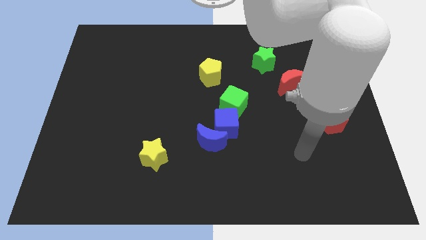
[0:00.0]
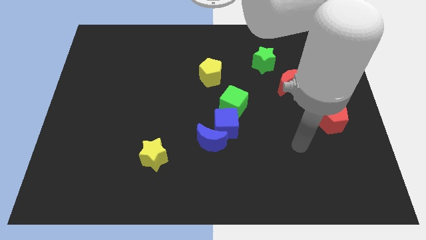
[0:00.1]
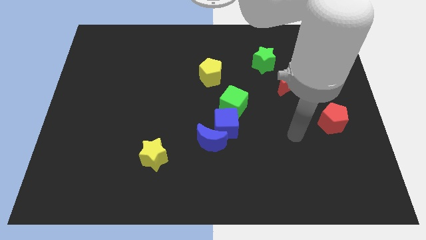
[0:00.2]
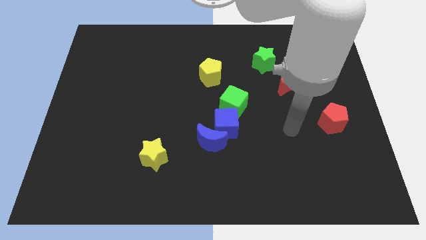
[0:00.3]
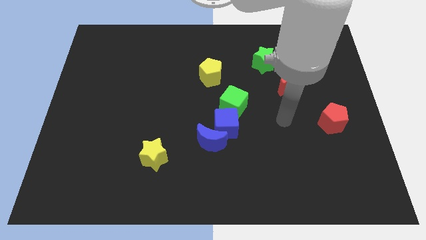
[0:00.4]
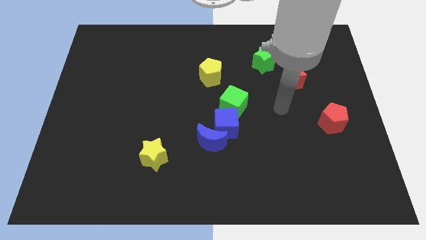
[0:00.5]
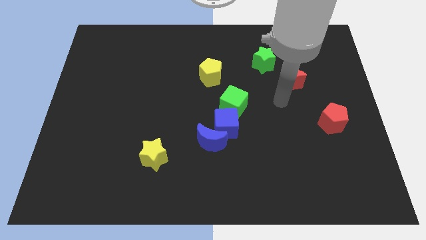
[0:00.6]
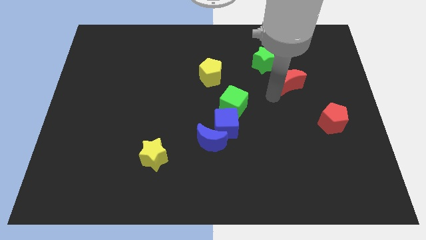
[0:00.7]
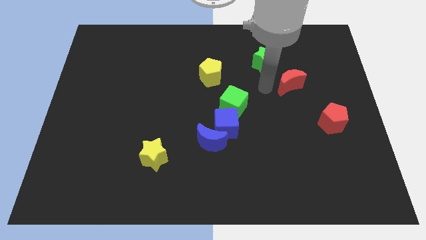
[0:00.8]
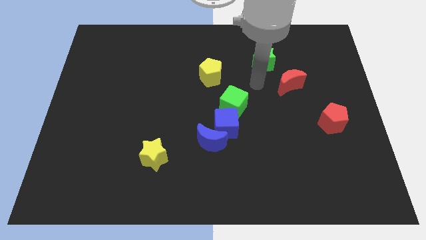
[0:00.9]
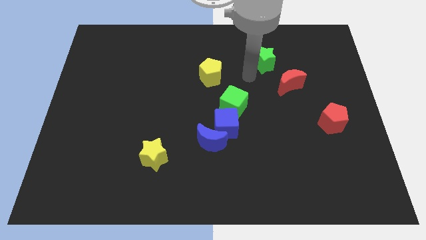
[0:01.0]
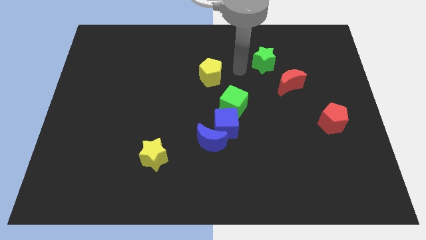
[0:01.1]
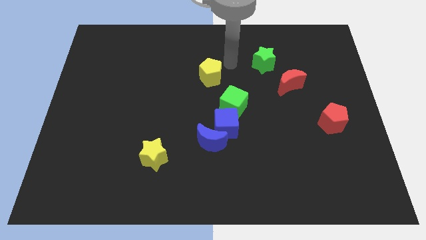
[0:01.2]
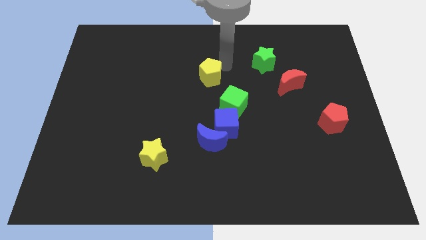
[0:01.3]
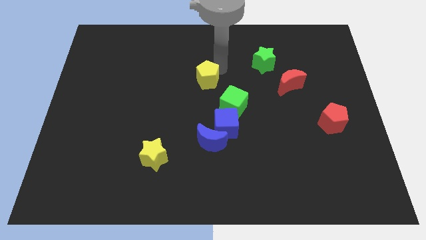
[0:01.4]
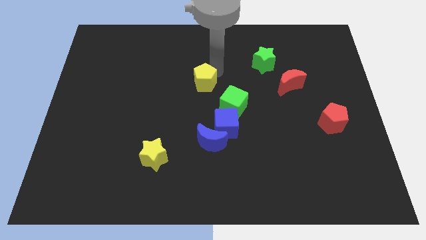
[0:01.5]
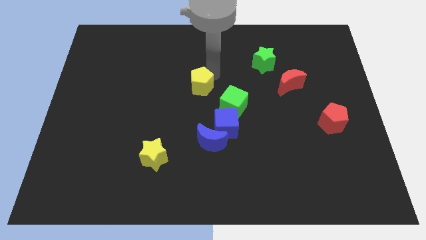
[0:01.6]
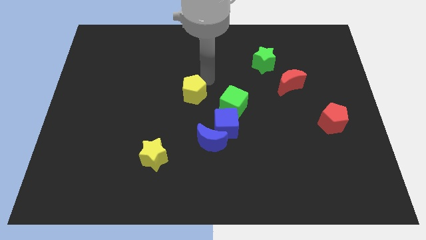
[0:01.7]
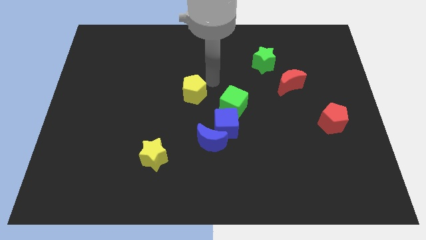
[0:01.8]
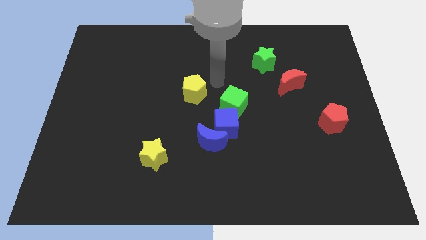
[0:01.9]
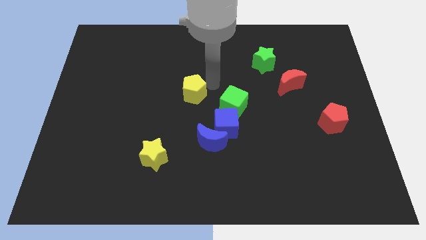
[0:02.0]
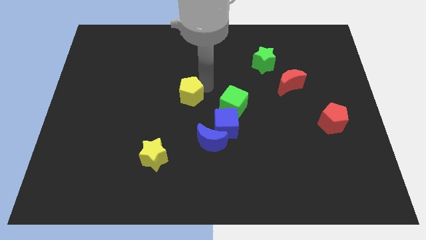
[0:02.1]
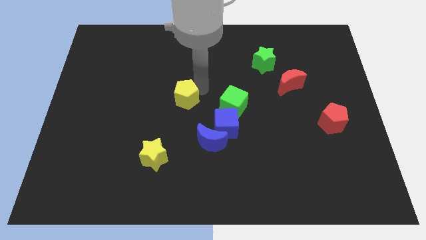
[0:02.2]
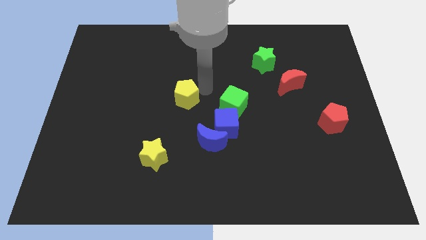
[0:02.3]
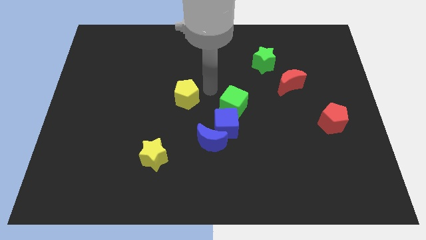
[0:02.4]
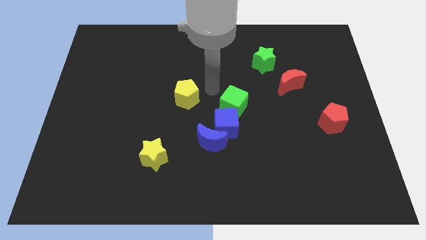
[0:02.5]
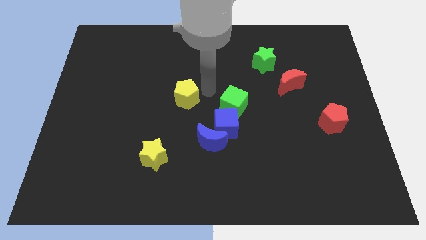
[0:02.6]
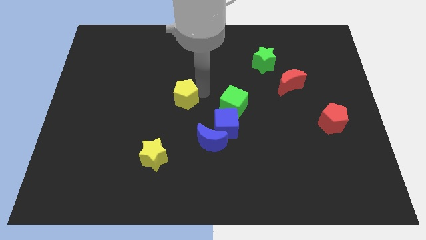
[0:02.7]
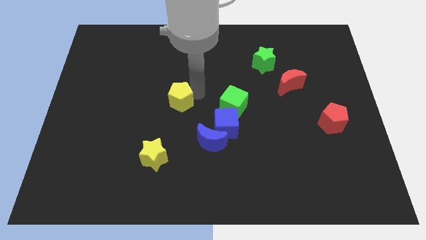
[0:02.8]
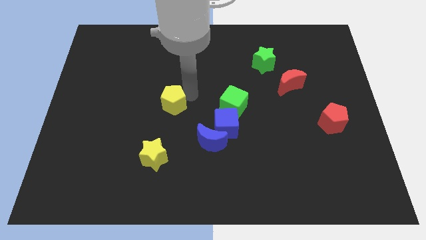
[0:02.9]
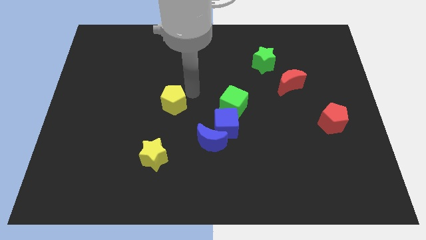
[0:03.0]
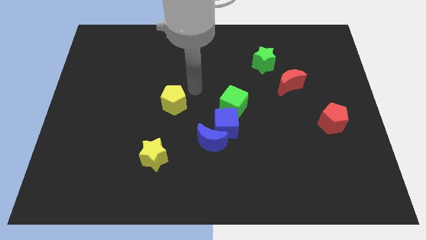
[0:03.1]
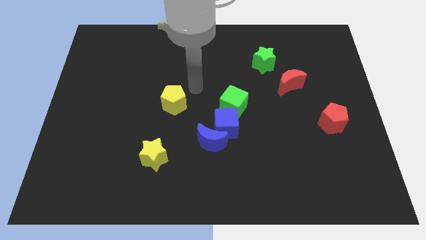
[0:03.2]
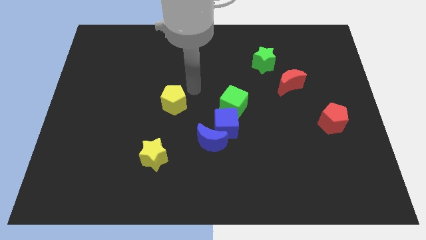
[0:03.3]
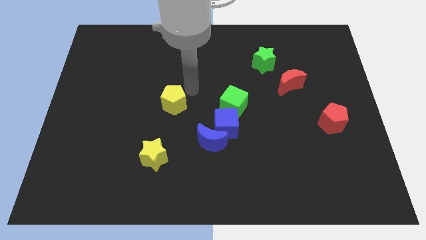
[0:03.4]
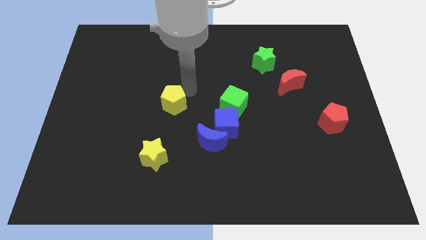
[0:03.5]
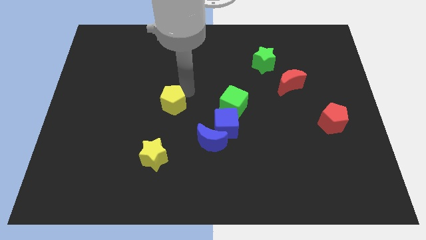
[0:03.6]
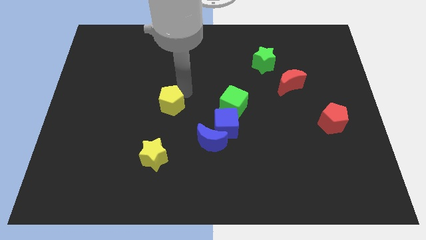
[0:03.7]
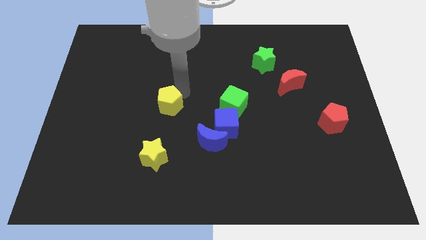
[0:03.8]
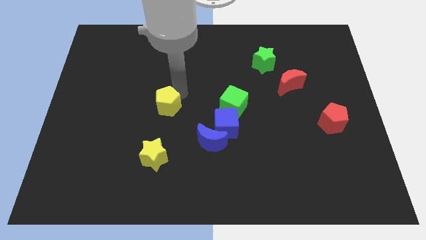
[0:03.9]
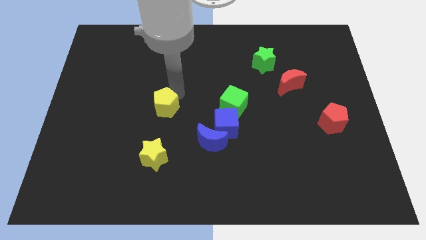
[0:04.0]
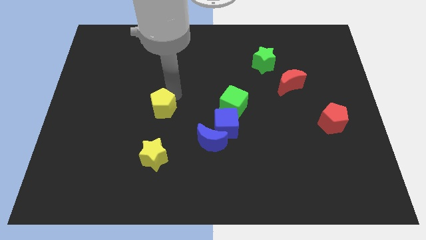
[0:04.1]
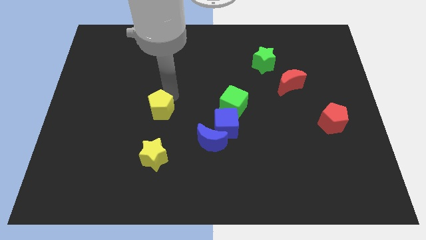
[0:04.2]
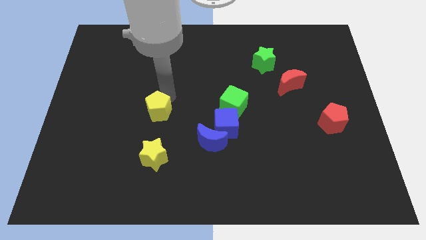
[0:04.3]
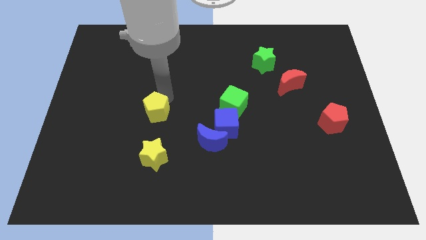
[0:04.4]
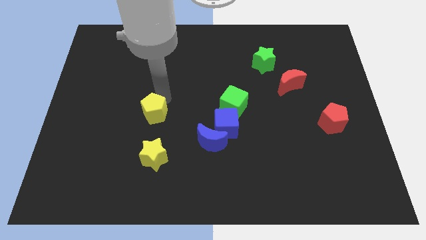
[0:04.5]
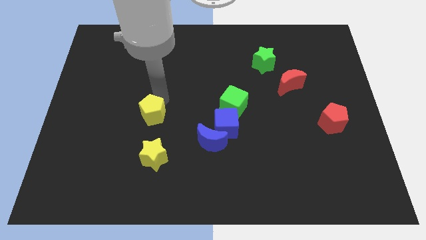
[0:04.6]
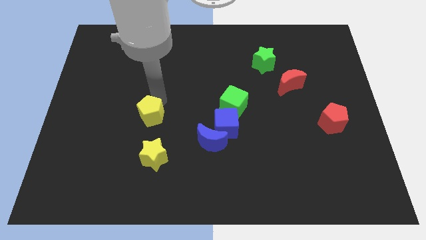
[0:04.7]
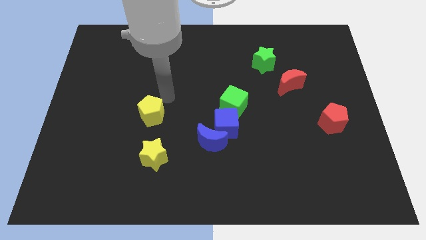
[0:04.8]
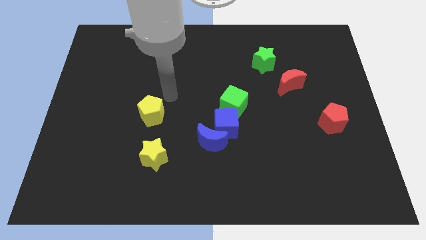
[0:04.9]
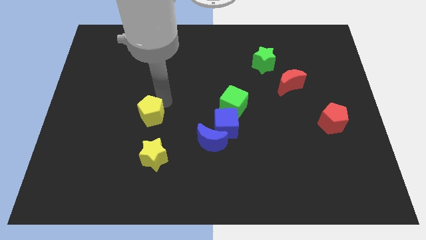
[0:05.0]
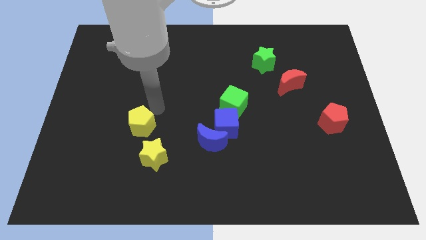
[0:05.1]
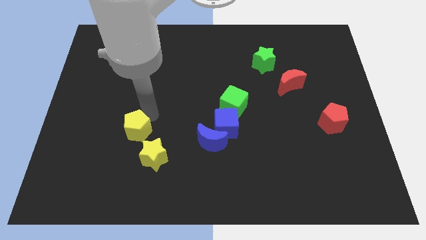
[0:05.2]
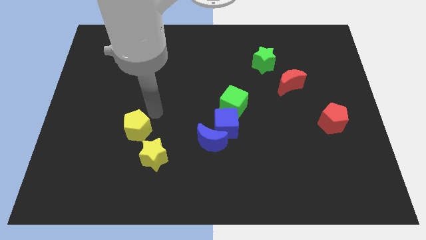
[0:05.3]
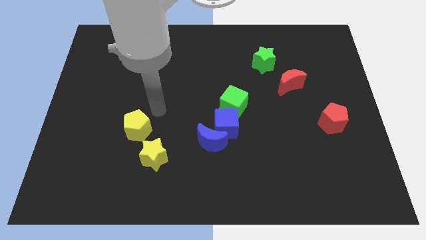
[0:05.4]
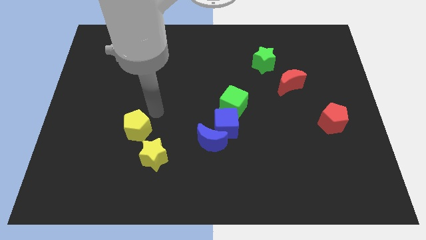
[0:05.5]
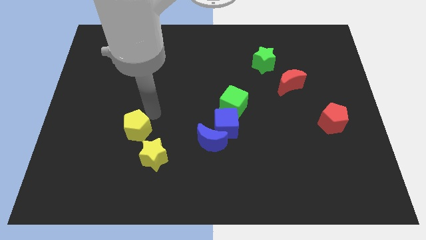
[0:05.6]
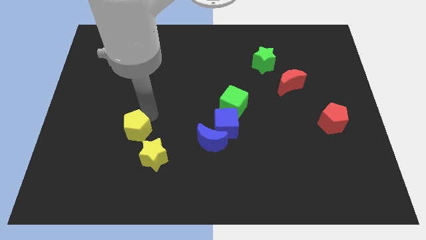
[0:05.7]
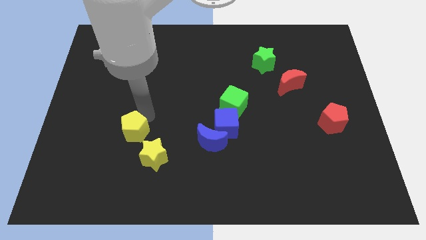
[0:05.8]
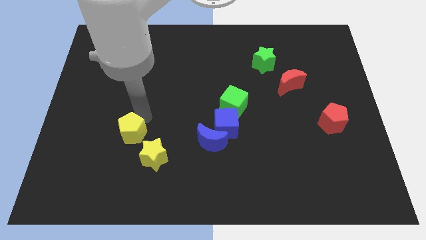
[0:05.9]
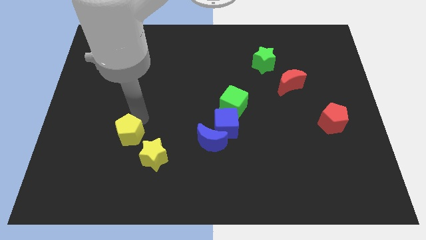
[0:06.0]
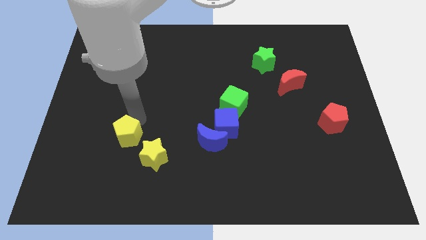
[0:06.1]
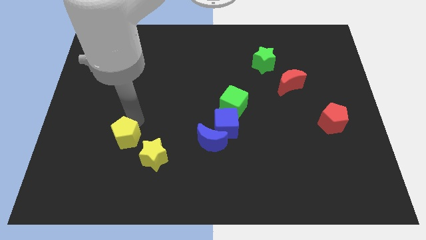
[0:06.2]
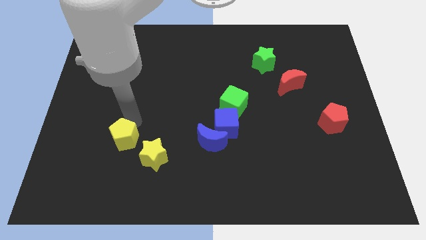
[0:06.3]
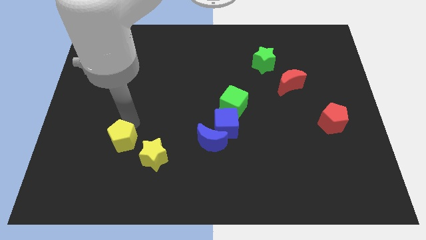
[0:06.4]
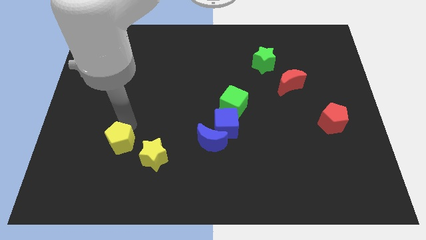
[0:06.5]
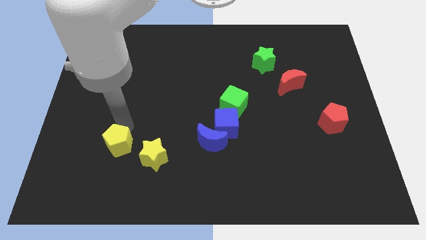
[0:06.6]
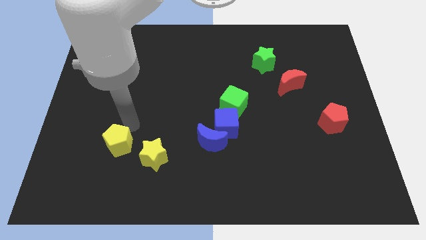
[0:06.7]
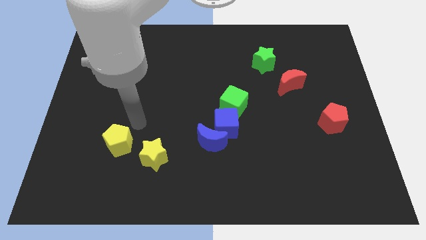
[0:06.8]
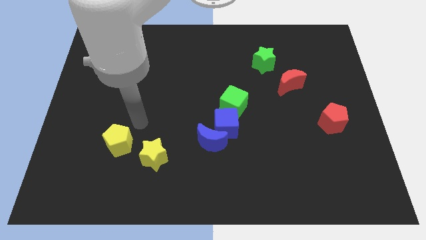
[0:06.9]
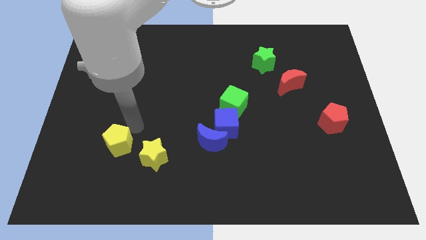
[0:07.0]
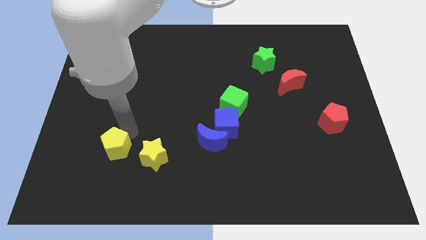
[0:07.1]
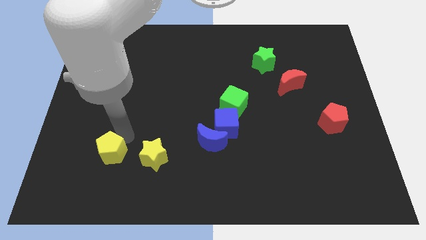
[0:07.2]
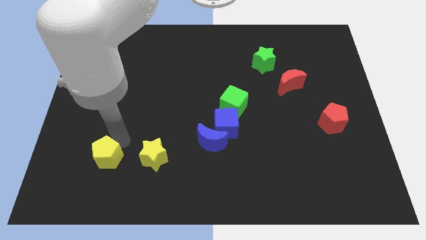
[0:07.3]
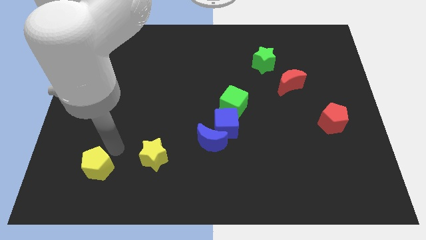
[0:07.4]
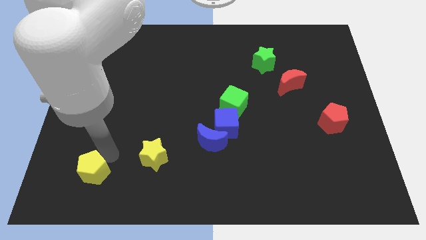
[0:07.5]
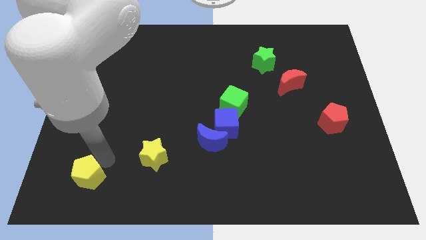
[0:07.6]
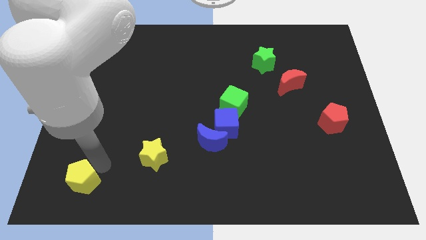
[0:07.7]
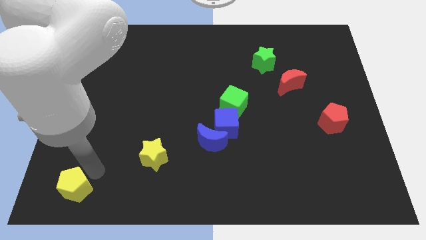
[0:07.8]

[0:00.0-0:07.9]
push the yellow pentagon to the bottom left
